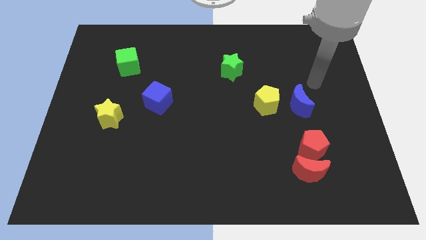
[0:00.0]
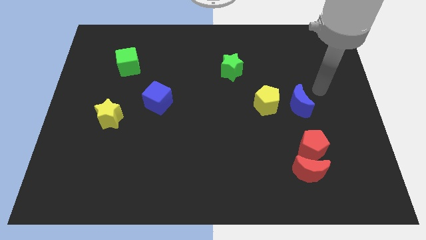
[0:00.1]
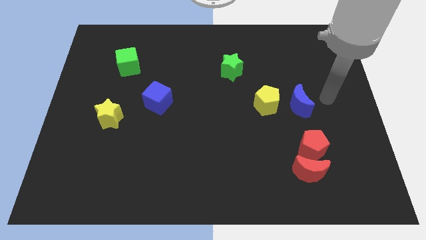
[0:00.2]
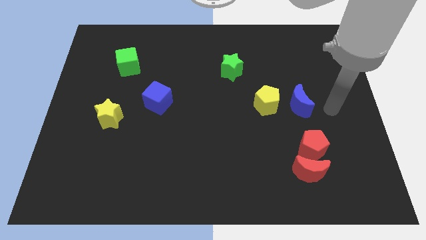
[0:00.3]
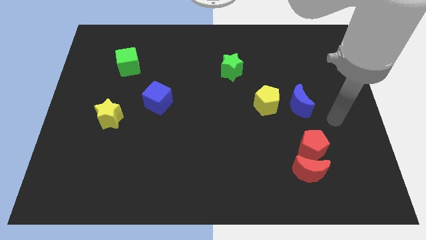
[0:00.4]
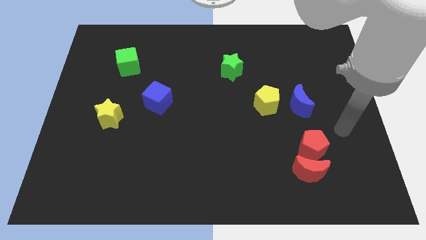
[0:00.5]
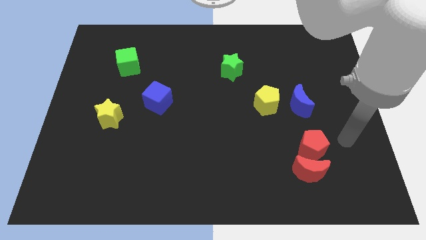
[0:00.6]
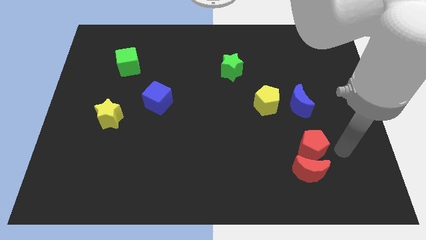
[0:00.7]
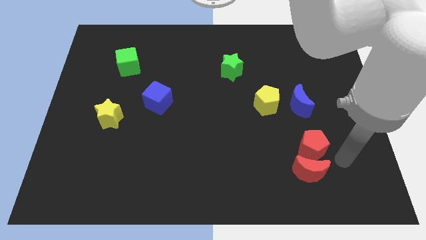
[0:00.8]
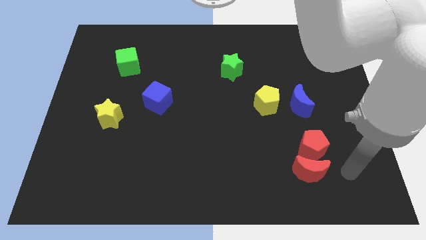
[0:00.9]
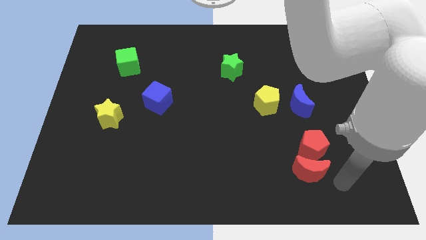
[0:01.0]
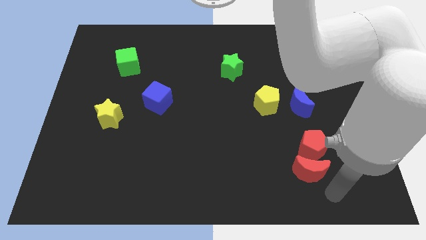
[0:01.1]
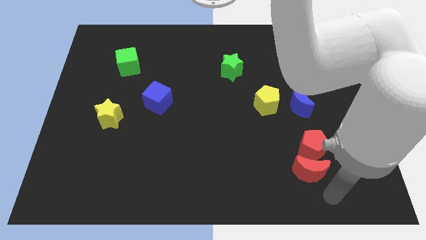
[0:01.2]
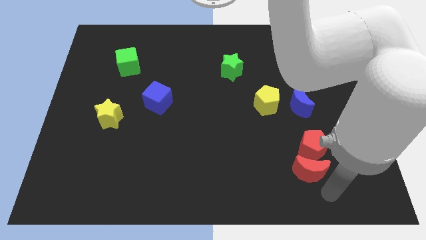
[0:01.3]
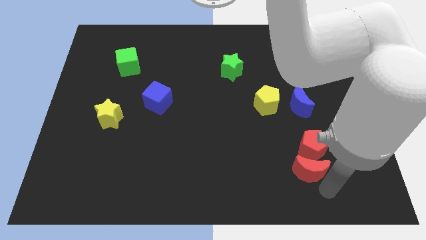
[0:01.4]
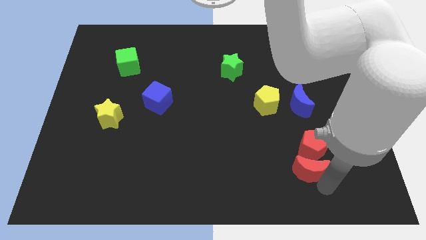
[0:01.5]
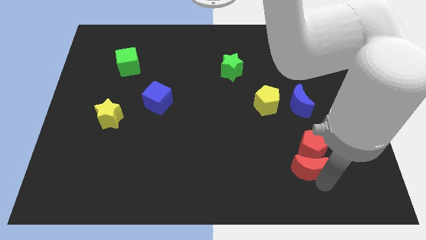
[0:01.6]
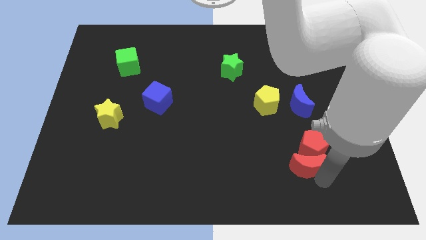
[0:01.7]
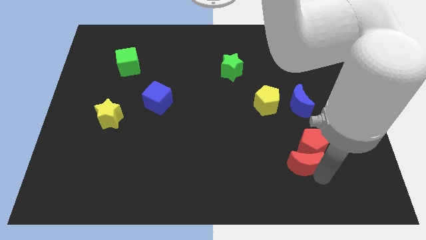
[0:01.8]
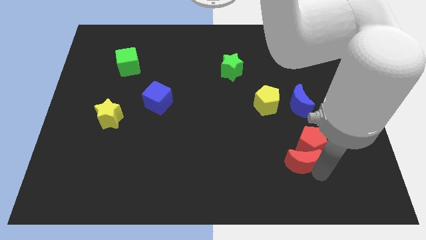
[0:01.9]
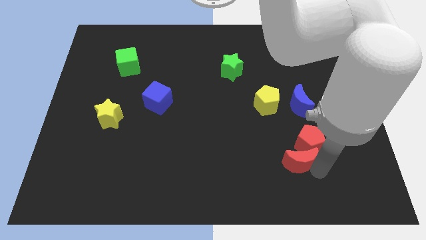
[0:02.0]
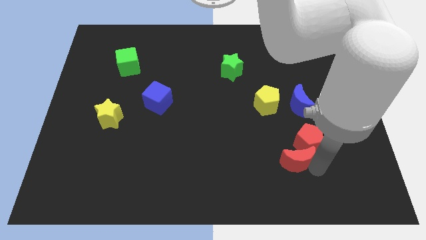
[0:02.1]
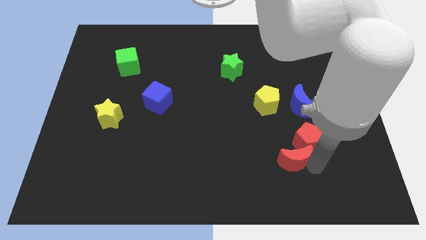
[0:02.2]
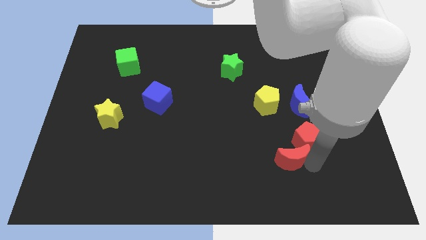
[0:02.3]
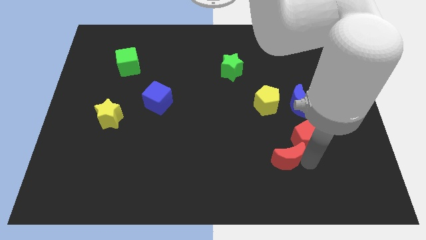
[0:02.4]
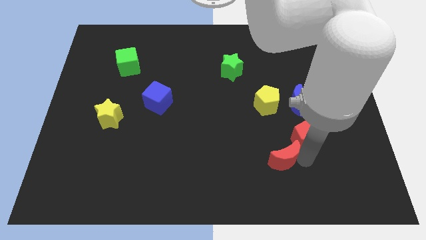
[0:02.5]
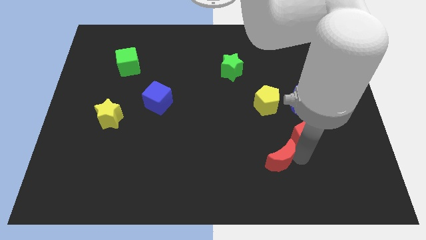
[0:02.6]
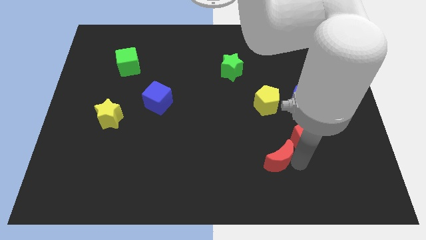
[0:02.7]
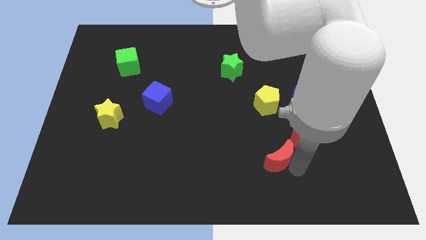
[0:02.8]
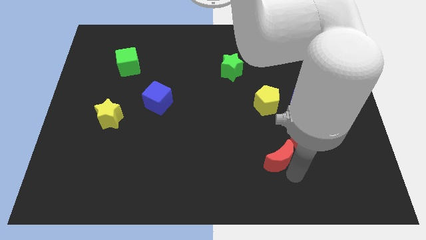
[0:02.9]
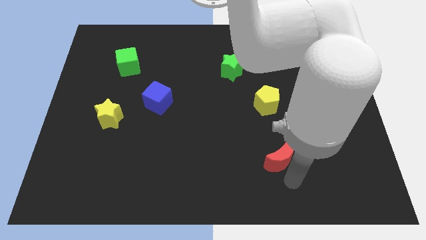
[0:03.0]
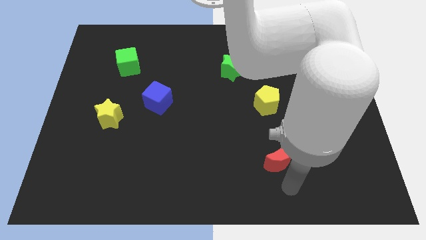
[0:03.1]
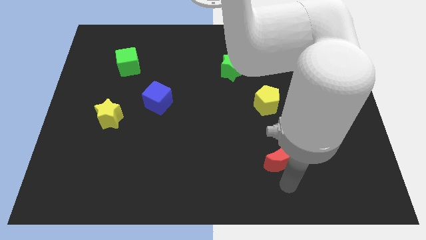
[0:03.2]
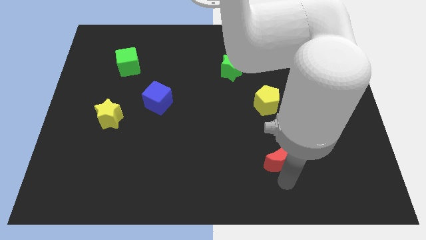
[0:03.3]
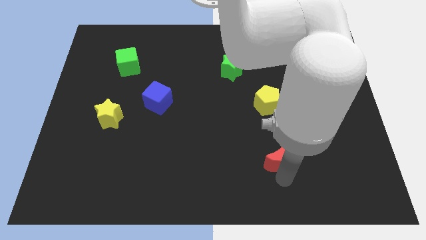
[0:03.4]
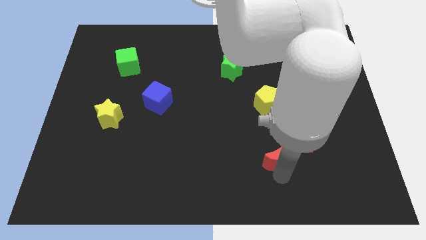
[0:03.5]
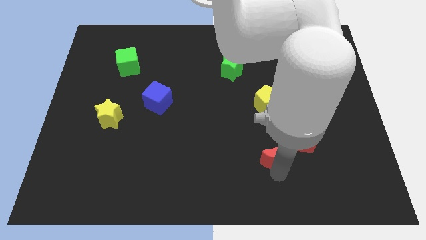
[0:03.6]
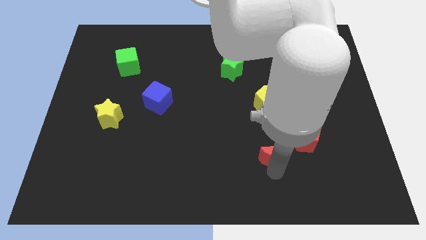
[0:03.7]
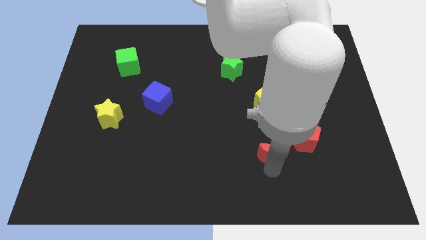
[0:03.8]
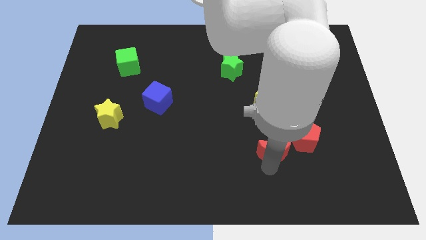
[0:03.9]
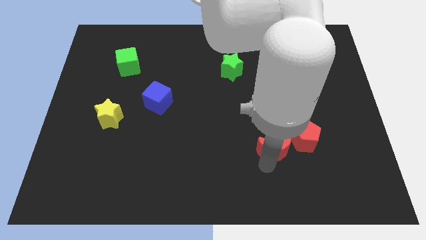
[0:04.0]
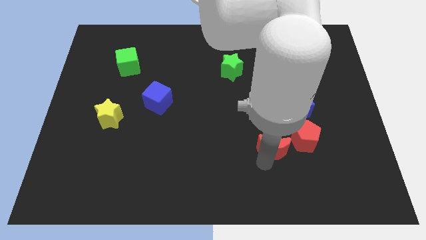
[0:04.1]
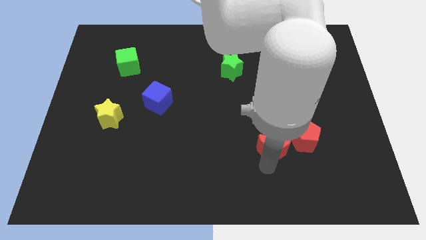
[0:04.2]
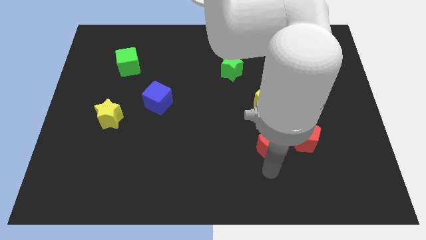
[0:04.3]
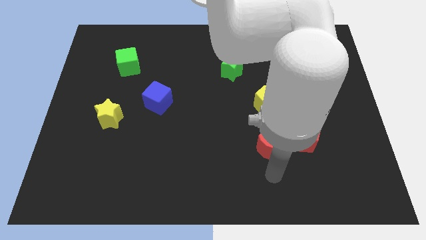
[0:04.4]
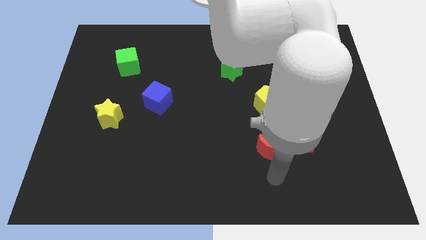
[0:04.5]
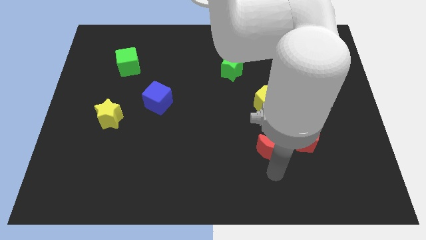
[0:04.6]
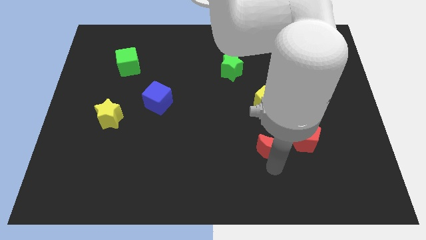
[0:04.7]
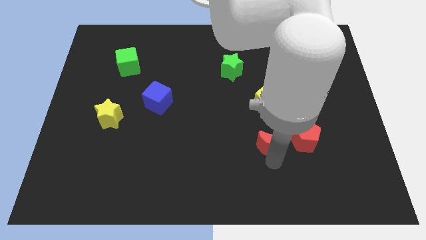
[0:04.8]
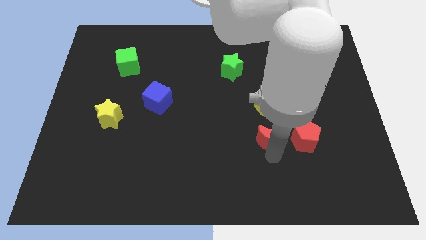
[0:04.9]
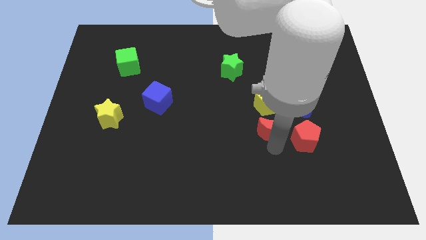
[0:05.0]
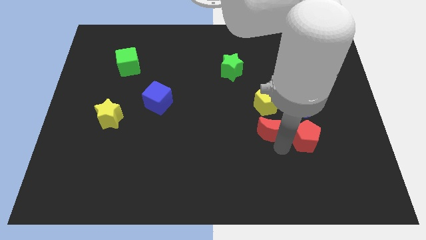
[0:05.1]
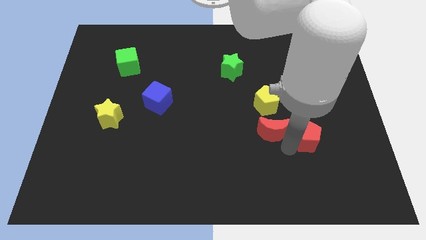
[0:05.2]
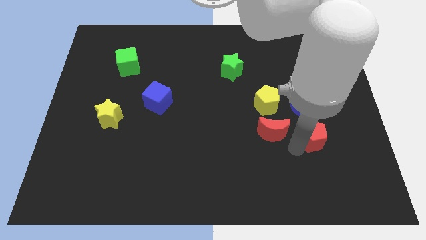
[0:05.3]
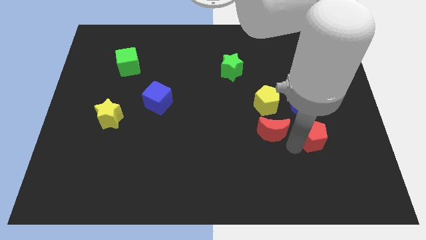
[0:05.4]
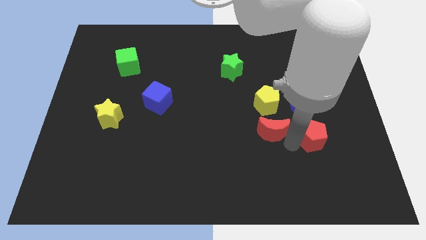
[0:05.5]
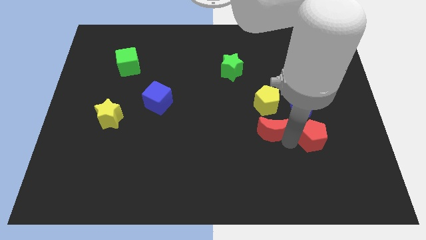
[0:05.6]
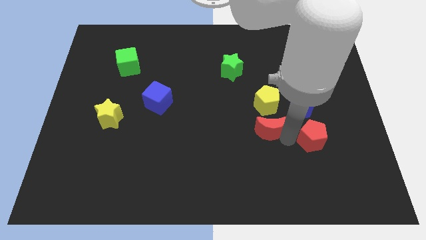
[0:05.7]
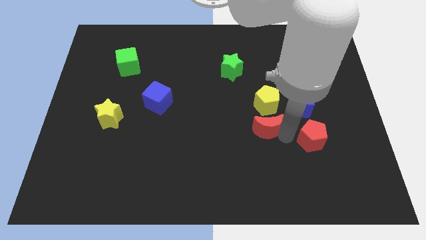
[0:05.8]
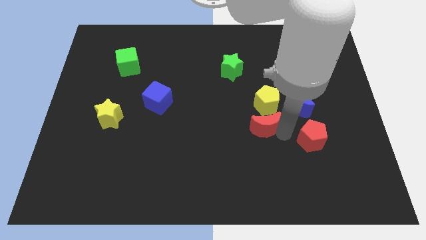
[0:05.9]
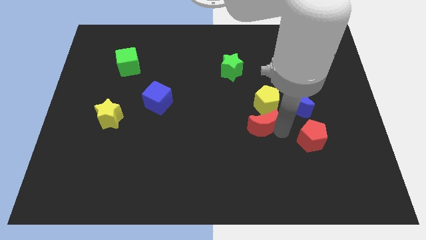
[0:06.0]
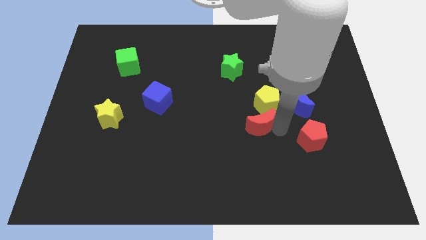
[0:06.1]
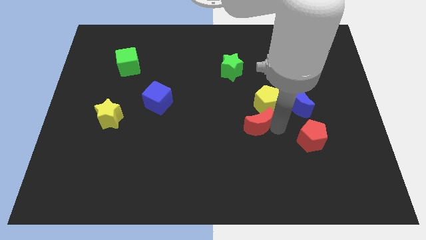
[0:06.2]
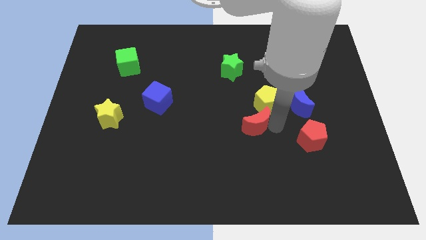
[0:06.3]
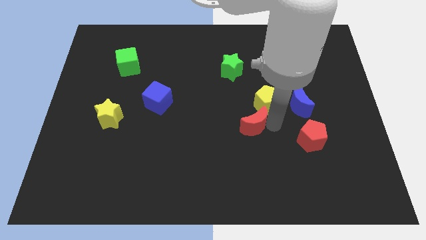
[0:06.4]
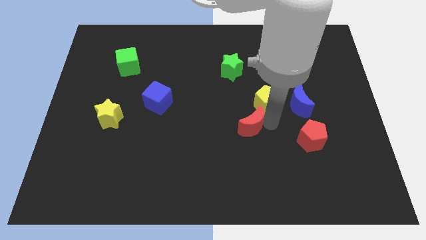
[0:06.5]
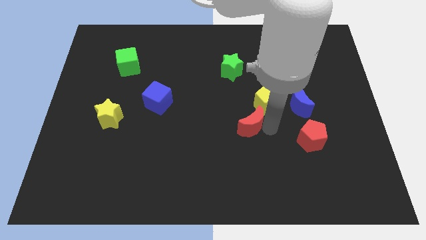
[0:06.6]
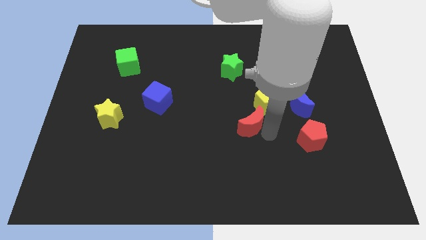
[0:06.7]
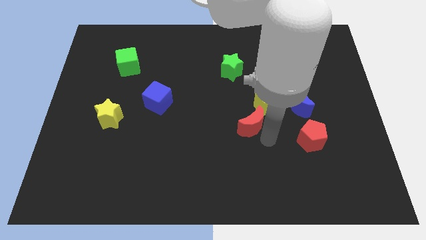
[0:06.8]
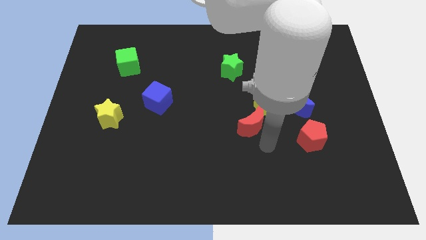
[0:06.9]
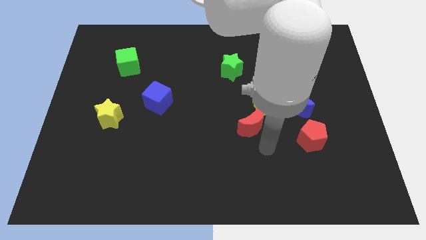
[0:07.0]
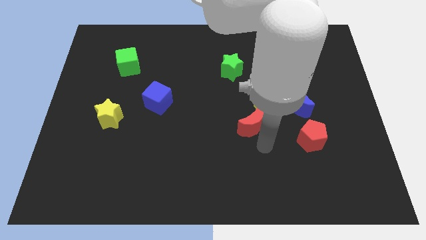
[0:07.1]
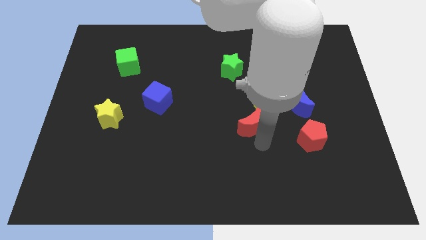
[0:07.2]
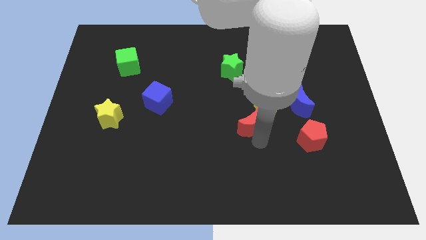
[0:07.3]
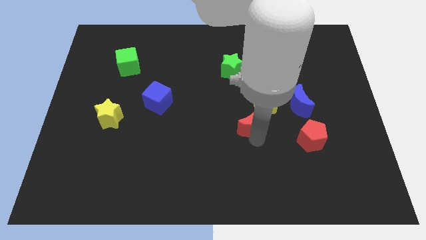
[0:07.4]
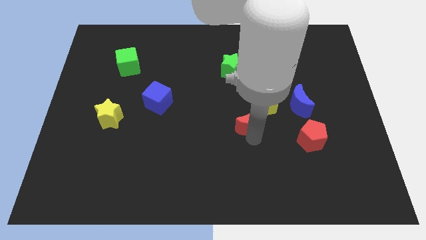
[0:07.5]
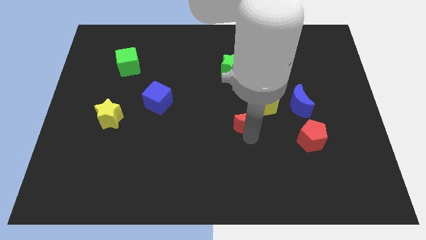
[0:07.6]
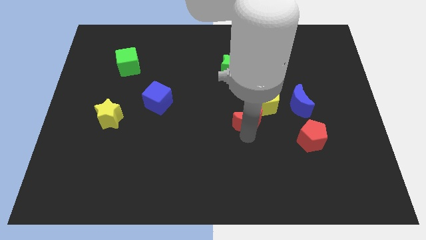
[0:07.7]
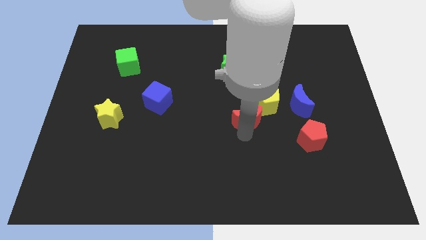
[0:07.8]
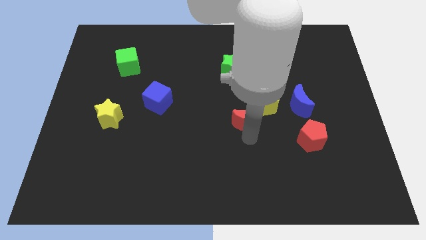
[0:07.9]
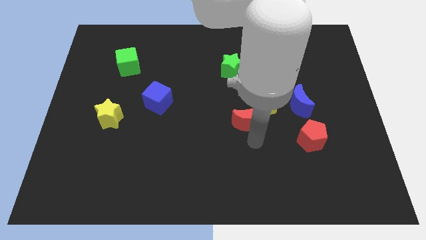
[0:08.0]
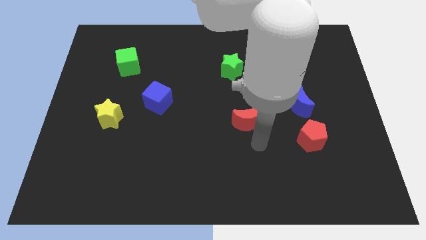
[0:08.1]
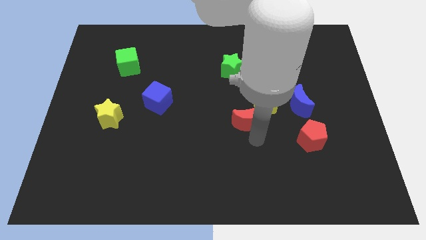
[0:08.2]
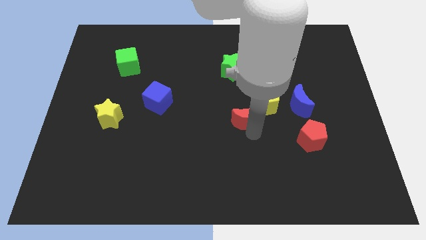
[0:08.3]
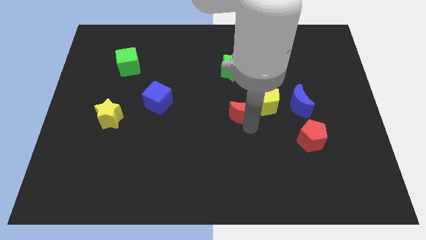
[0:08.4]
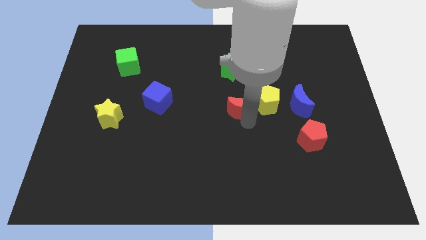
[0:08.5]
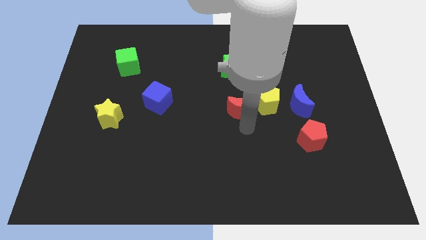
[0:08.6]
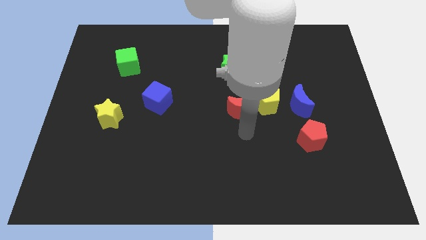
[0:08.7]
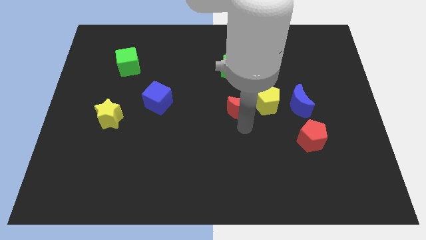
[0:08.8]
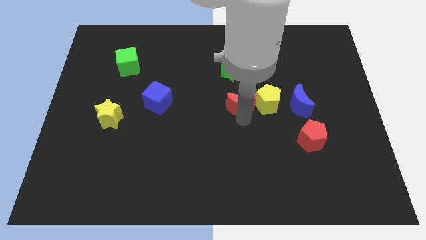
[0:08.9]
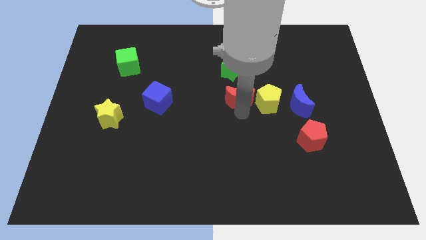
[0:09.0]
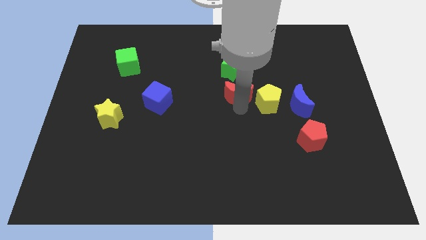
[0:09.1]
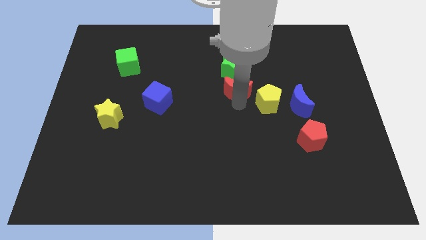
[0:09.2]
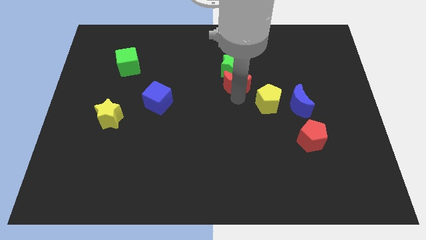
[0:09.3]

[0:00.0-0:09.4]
put the red moon close to the green star
